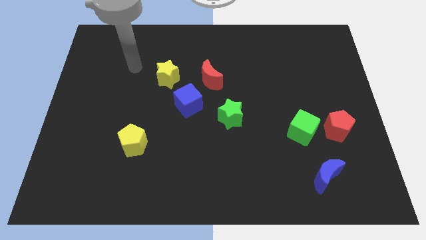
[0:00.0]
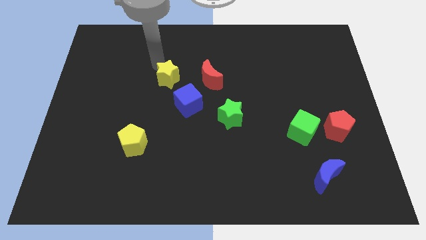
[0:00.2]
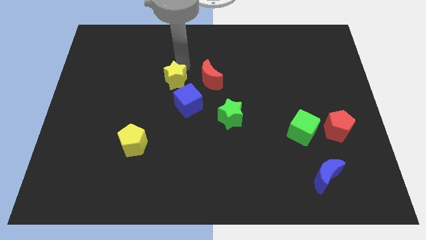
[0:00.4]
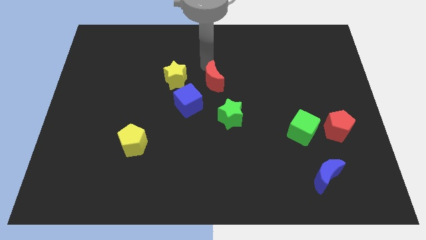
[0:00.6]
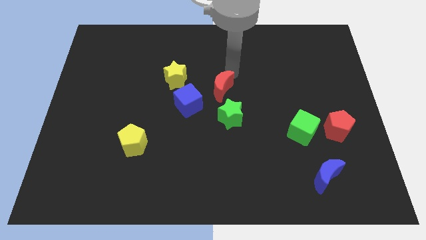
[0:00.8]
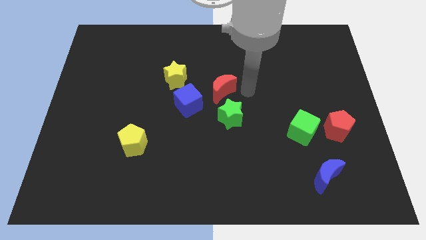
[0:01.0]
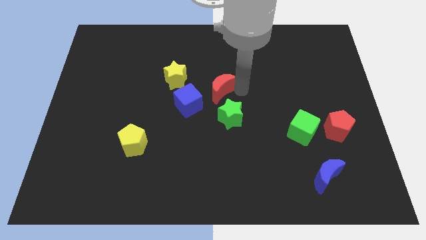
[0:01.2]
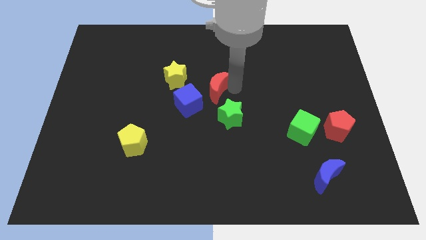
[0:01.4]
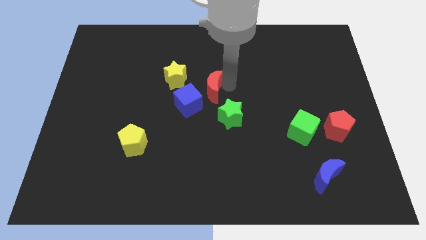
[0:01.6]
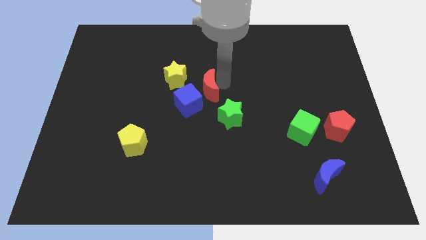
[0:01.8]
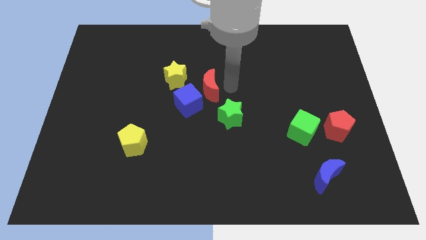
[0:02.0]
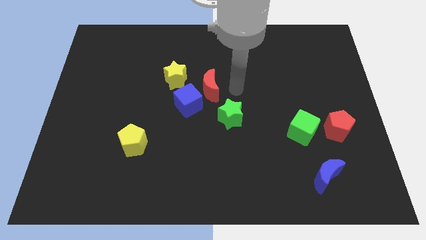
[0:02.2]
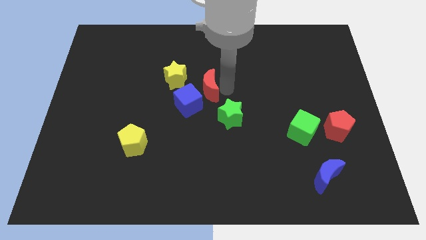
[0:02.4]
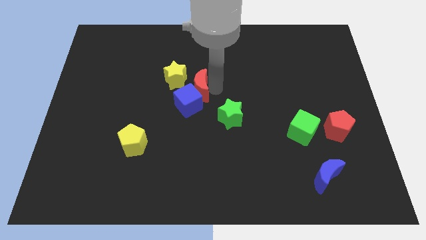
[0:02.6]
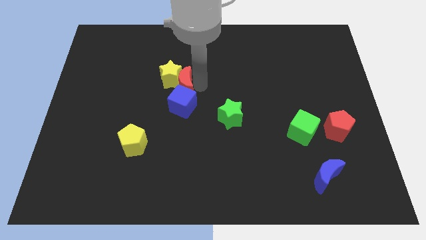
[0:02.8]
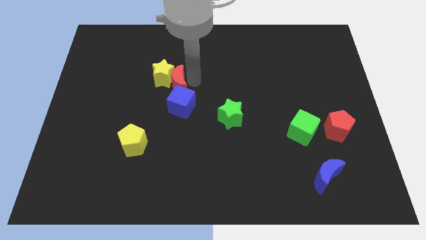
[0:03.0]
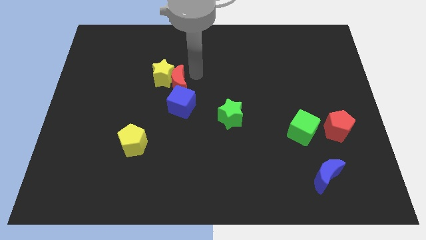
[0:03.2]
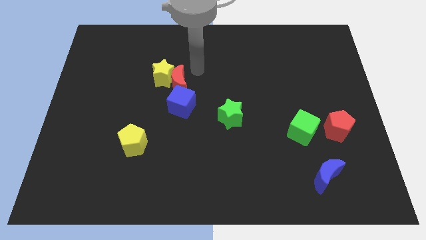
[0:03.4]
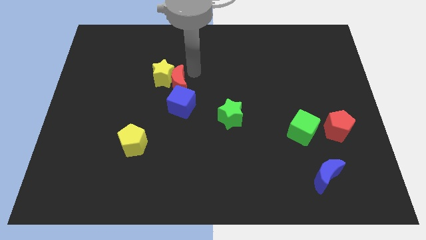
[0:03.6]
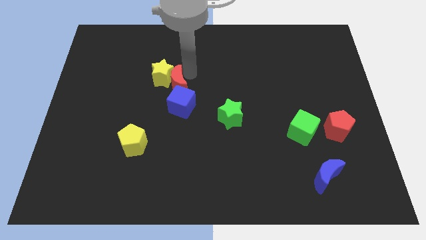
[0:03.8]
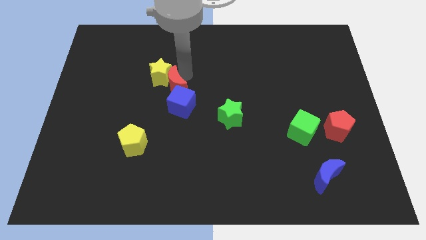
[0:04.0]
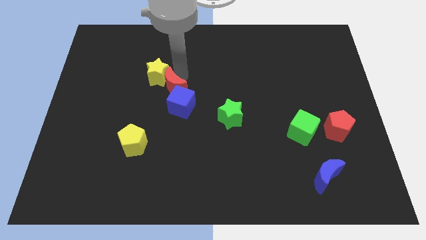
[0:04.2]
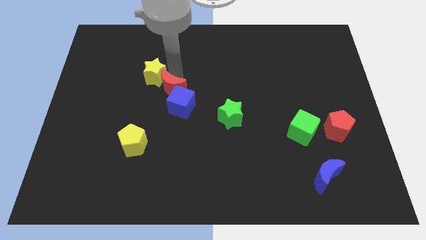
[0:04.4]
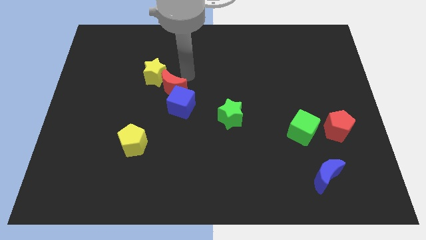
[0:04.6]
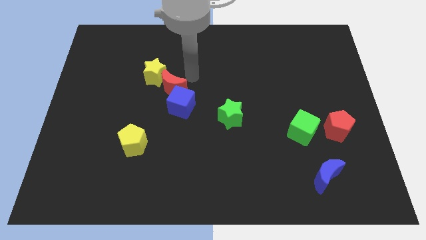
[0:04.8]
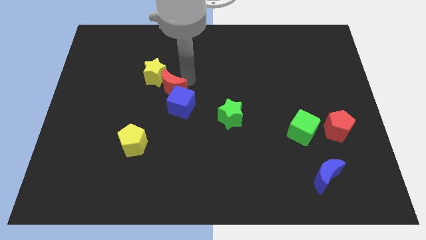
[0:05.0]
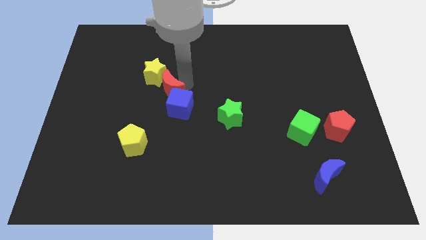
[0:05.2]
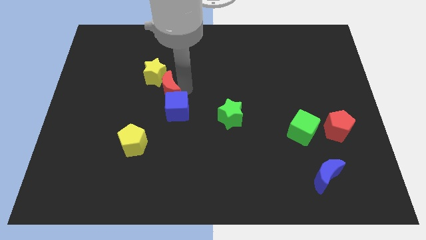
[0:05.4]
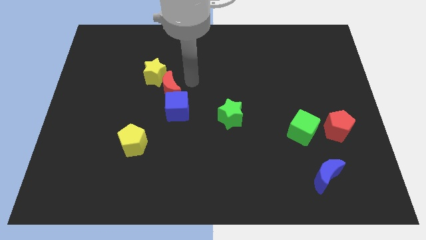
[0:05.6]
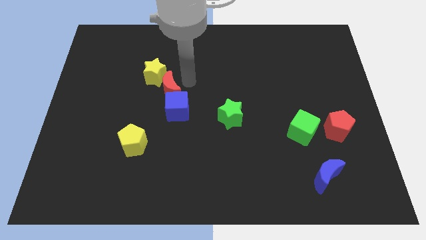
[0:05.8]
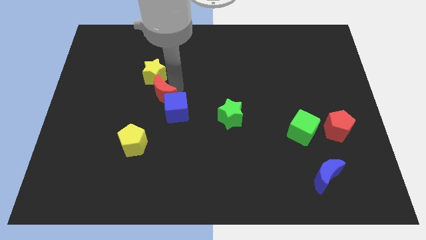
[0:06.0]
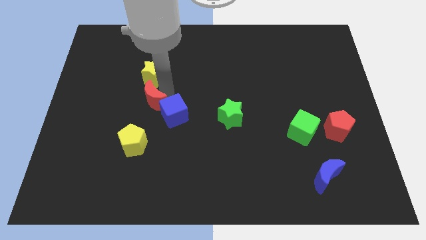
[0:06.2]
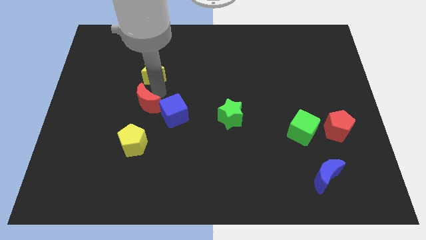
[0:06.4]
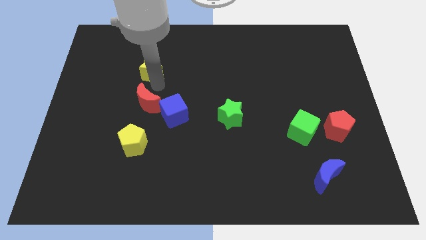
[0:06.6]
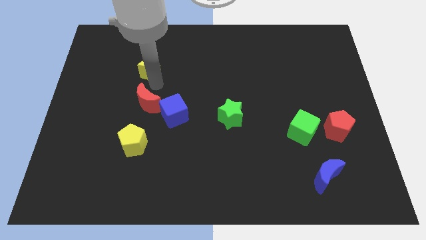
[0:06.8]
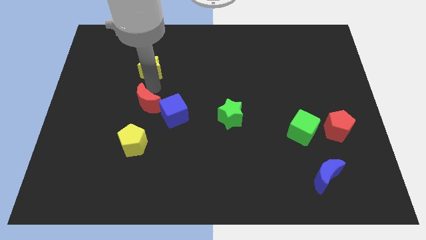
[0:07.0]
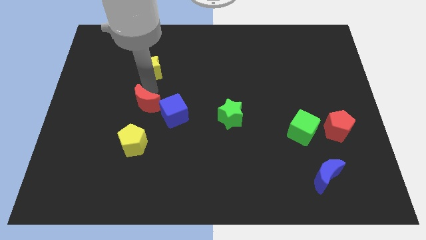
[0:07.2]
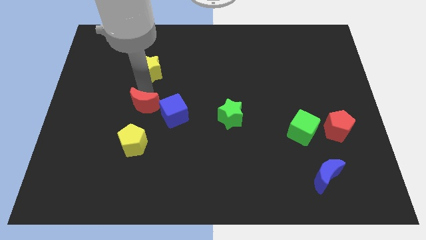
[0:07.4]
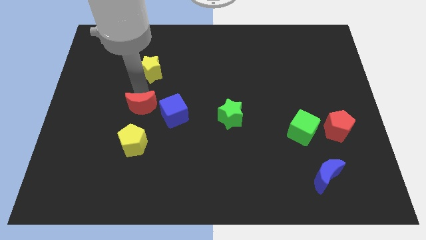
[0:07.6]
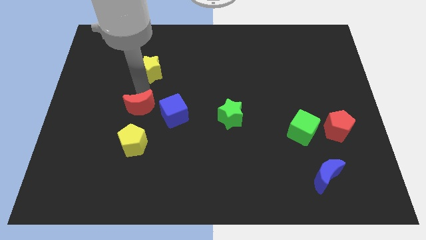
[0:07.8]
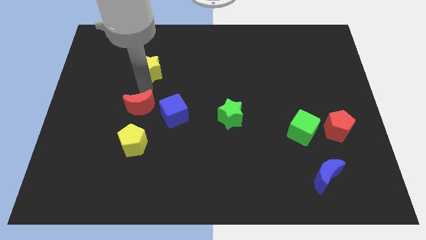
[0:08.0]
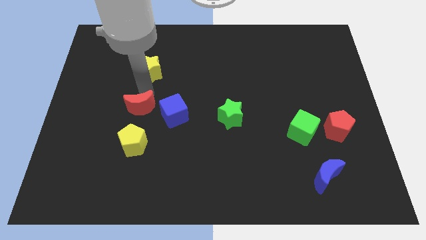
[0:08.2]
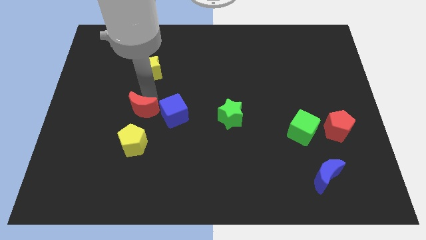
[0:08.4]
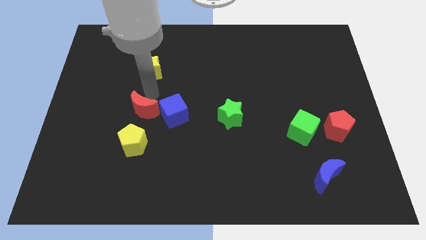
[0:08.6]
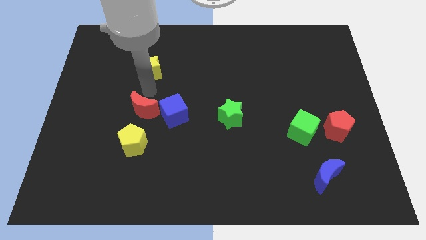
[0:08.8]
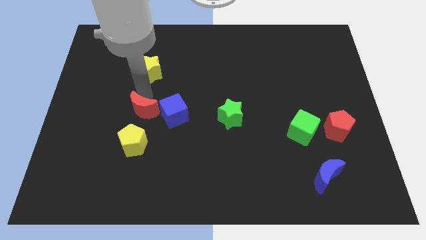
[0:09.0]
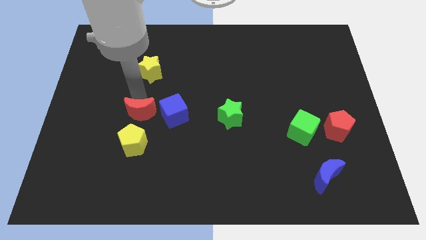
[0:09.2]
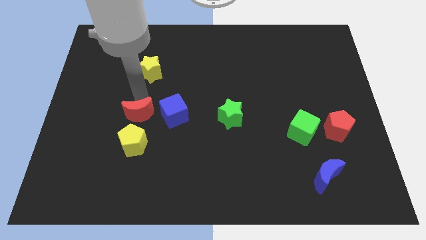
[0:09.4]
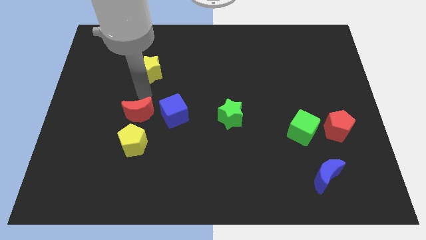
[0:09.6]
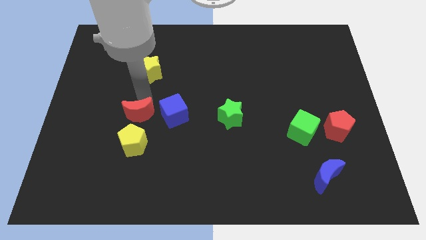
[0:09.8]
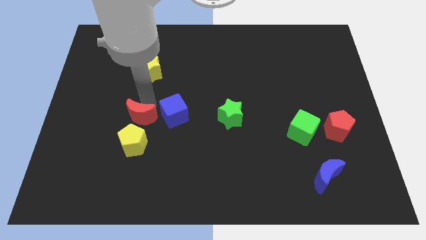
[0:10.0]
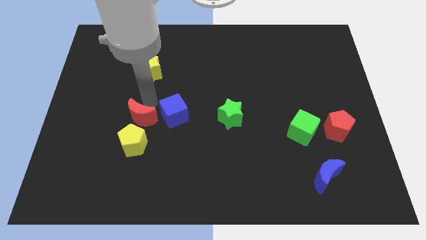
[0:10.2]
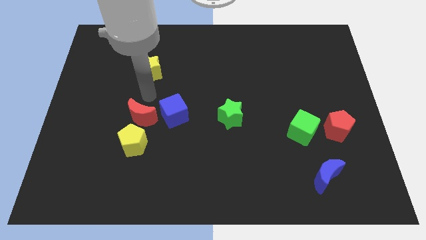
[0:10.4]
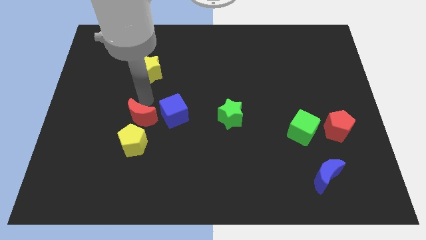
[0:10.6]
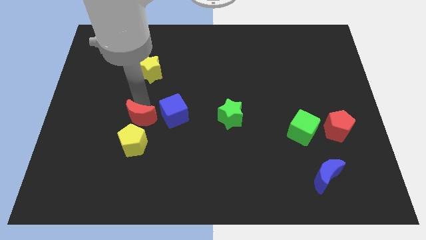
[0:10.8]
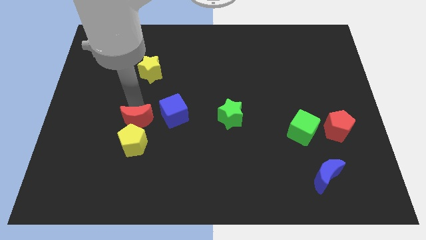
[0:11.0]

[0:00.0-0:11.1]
put the red moon to the yellow pentagon

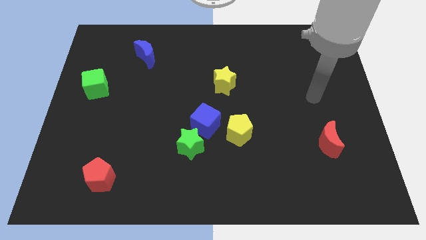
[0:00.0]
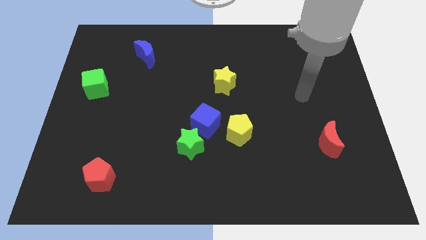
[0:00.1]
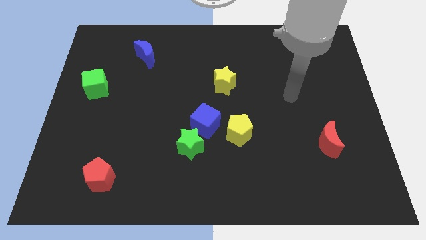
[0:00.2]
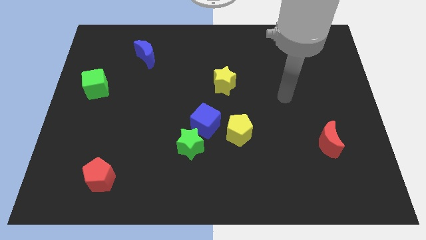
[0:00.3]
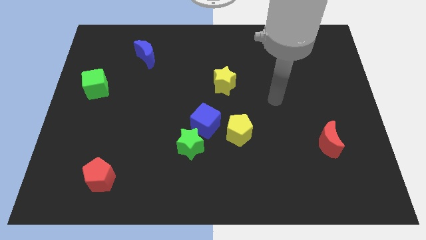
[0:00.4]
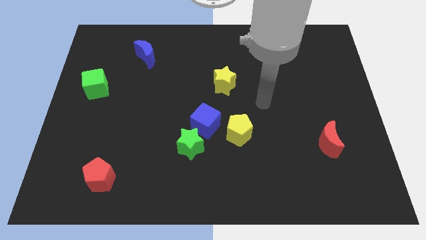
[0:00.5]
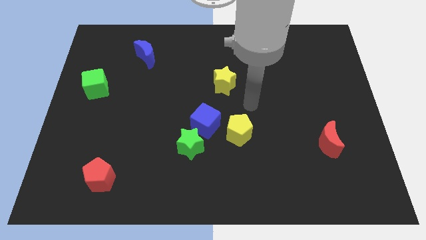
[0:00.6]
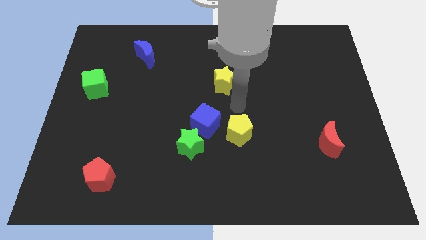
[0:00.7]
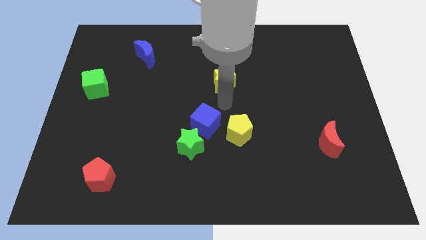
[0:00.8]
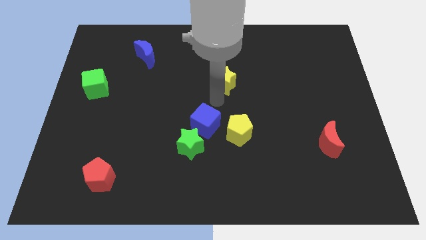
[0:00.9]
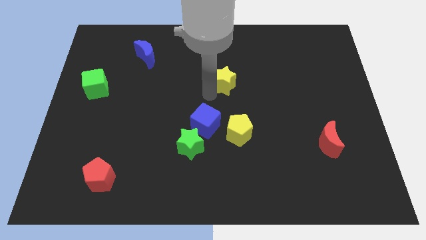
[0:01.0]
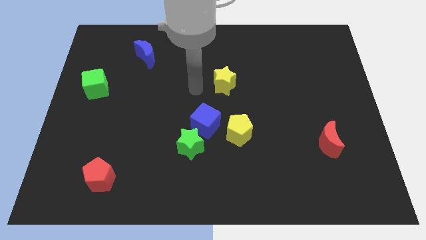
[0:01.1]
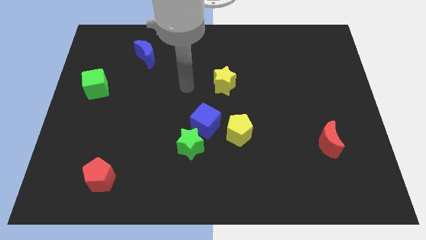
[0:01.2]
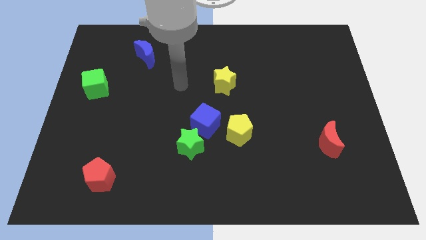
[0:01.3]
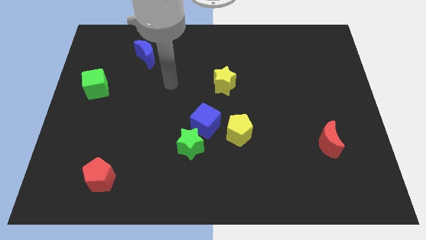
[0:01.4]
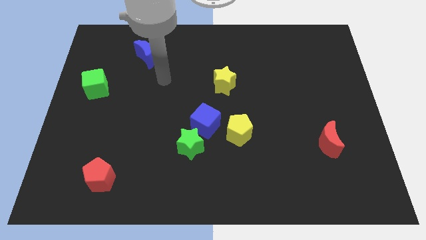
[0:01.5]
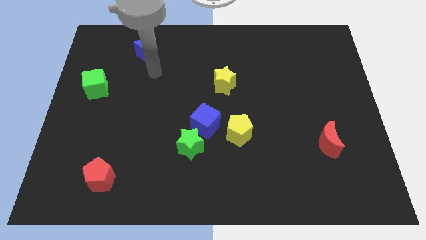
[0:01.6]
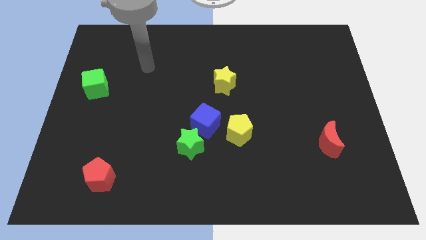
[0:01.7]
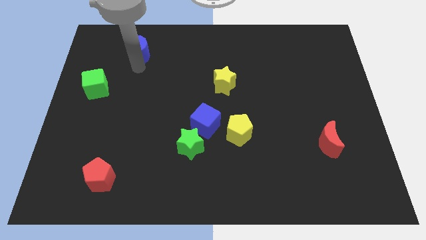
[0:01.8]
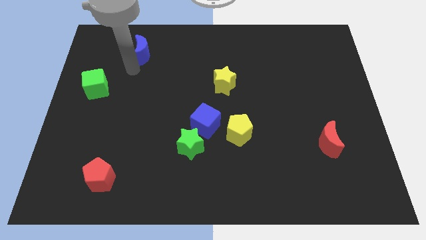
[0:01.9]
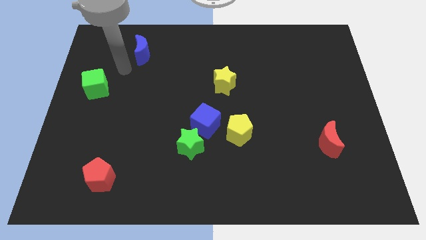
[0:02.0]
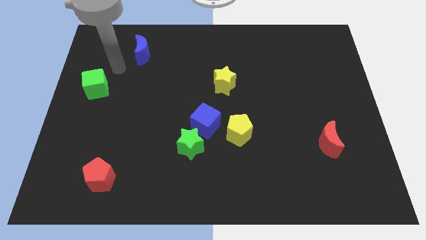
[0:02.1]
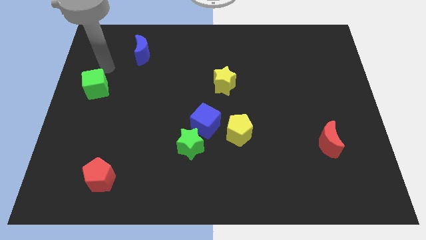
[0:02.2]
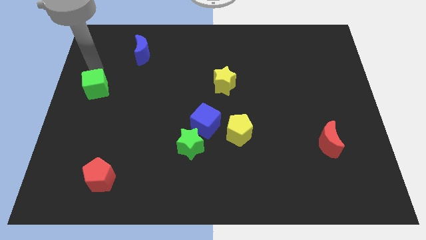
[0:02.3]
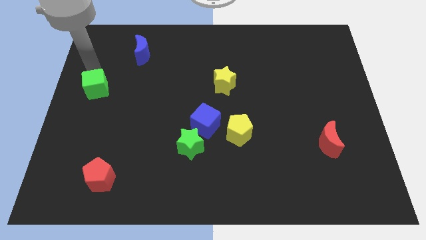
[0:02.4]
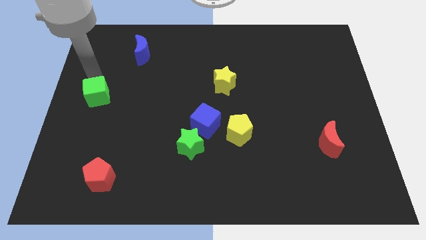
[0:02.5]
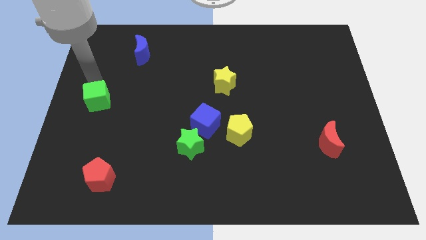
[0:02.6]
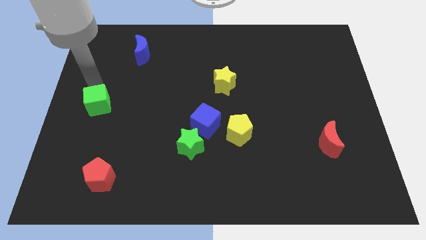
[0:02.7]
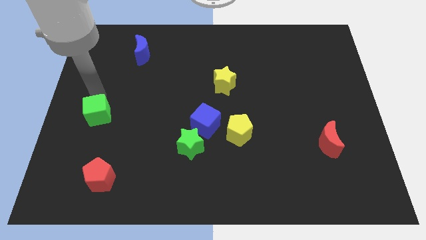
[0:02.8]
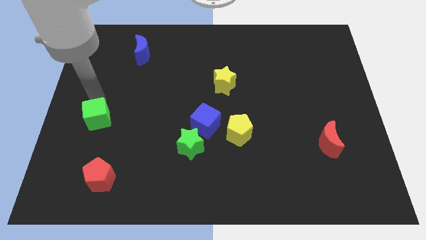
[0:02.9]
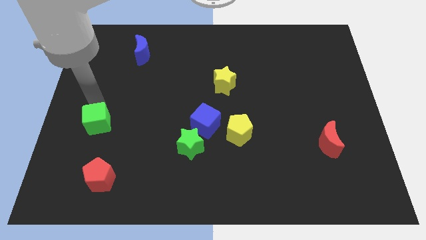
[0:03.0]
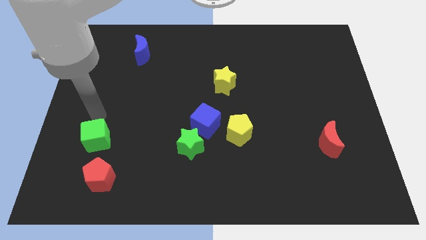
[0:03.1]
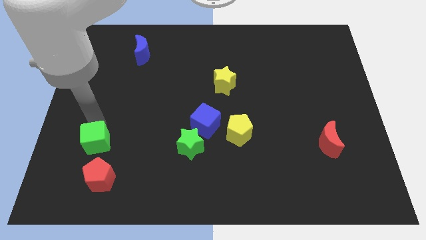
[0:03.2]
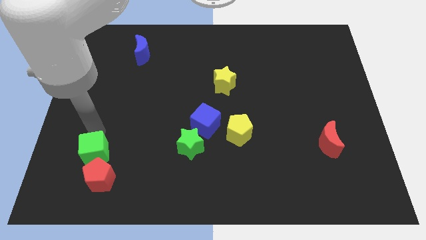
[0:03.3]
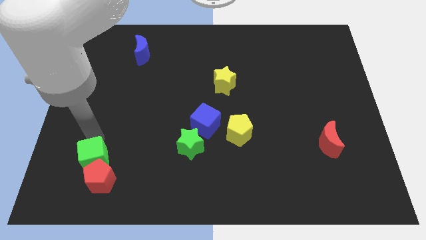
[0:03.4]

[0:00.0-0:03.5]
slide the green cube towards the red pentagon
